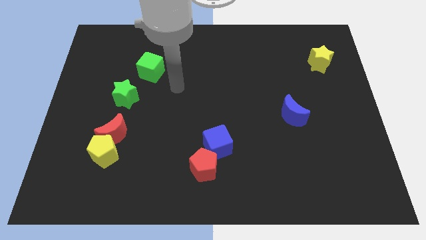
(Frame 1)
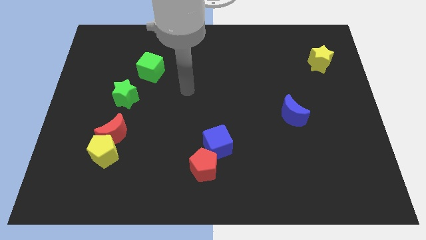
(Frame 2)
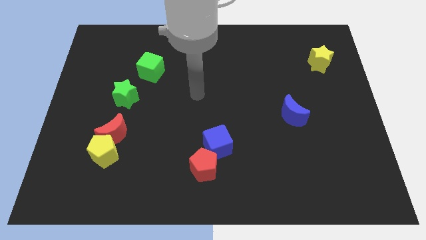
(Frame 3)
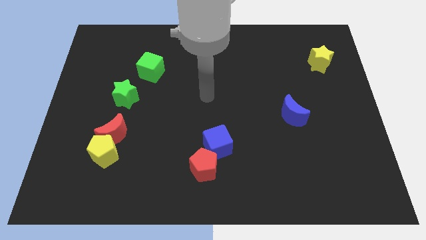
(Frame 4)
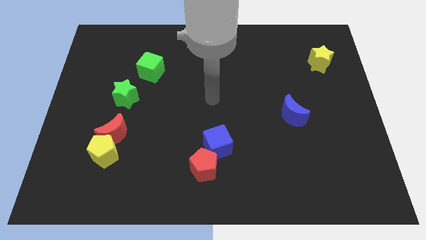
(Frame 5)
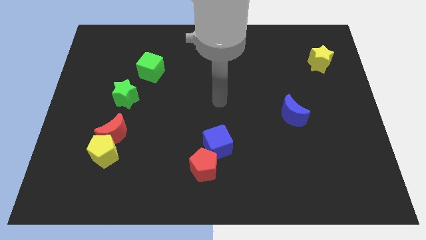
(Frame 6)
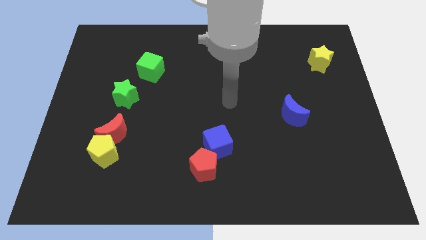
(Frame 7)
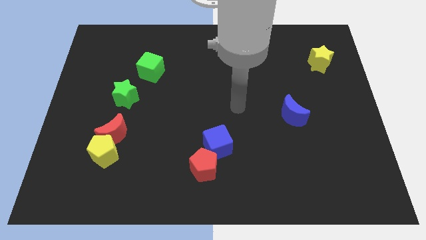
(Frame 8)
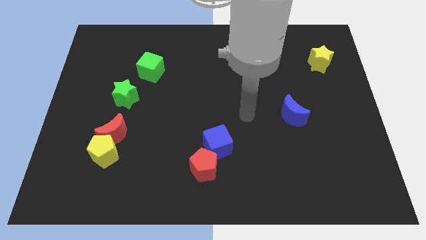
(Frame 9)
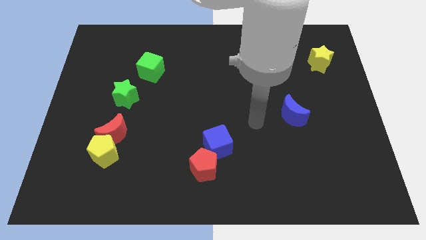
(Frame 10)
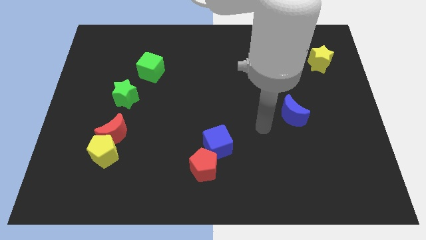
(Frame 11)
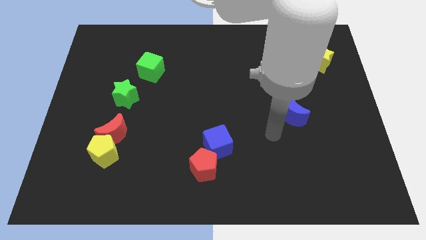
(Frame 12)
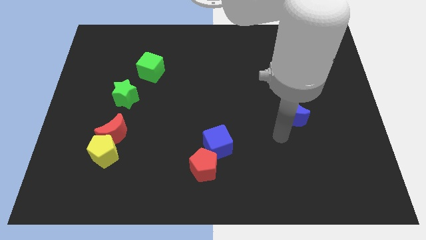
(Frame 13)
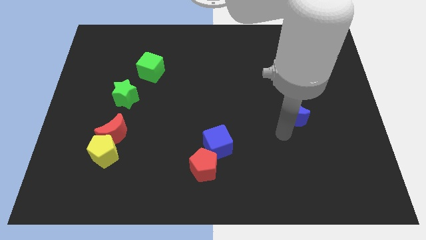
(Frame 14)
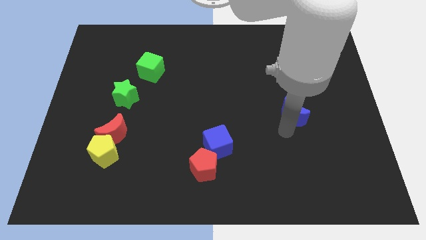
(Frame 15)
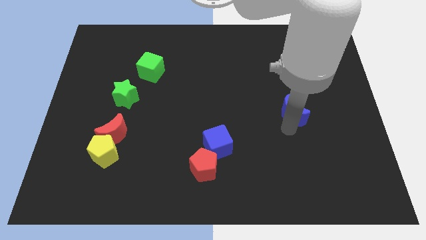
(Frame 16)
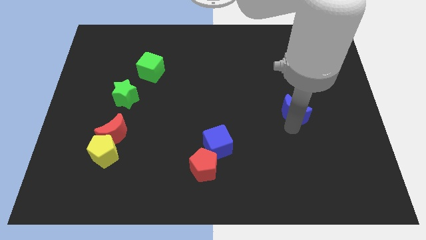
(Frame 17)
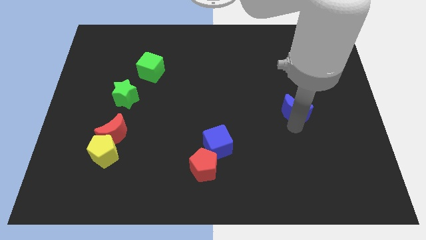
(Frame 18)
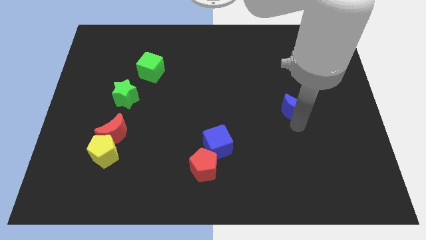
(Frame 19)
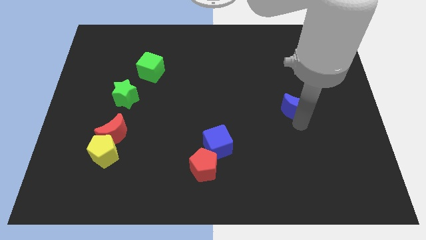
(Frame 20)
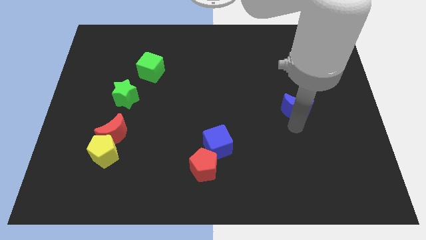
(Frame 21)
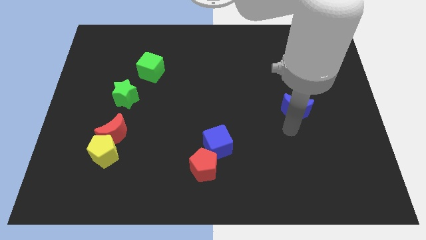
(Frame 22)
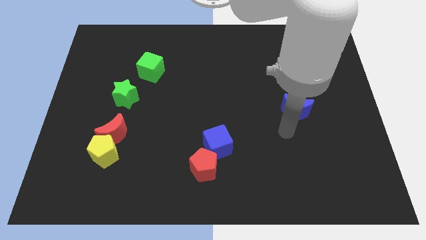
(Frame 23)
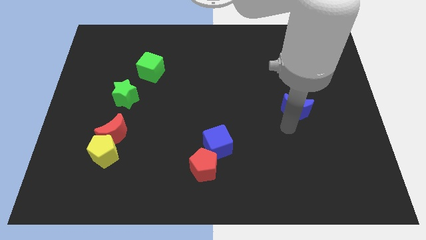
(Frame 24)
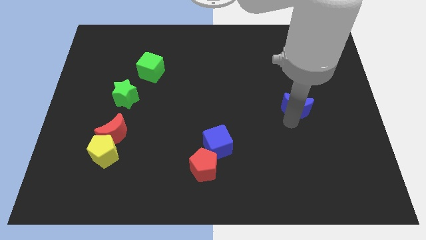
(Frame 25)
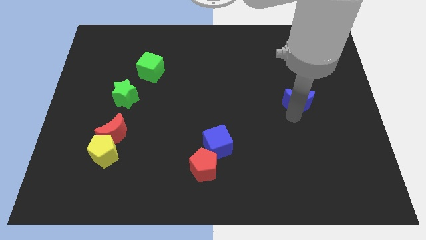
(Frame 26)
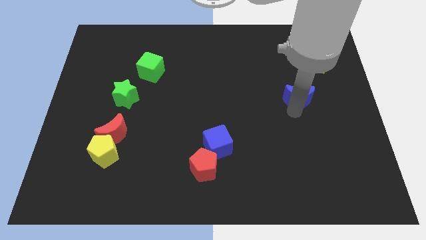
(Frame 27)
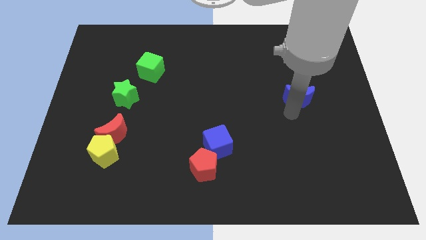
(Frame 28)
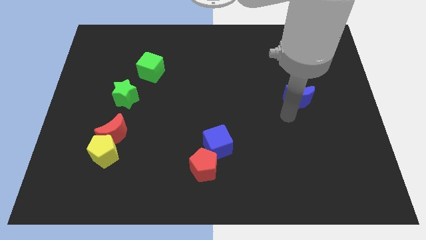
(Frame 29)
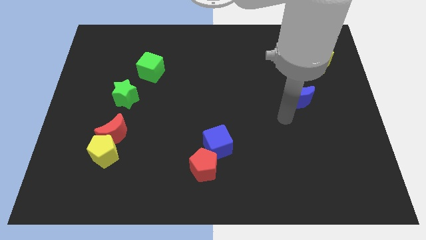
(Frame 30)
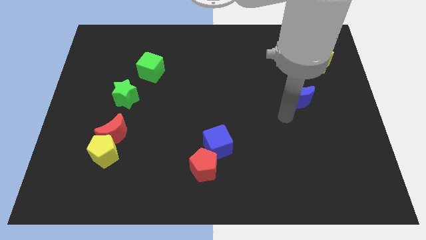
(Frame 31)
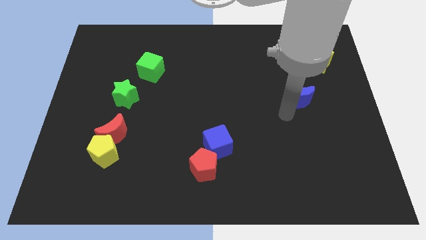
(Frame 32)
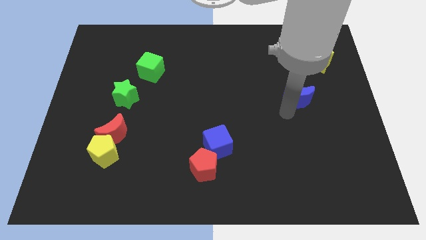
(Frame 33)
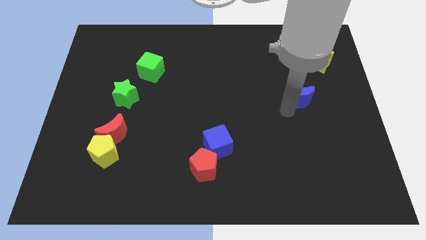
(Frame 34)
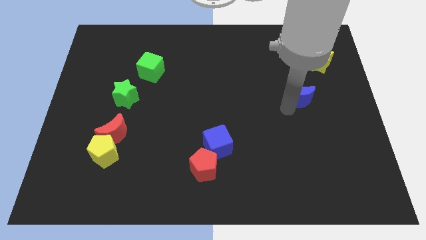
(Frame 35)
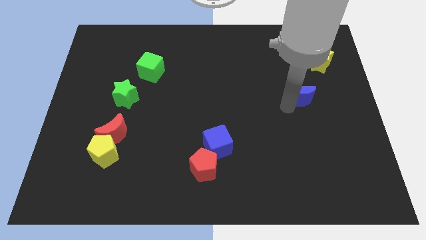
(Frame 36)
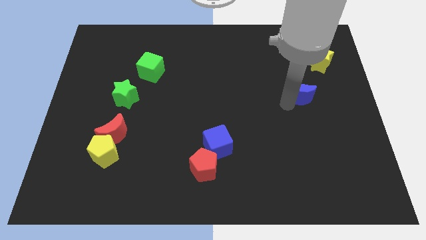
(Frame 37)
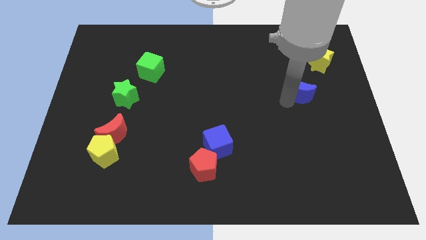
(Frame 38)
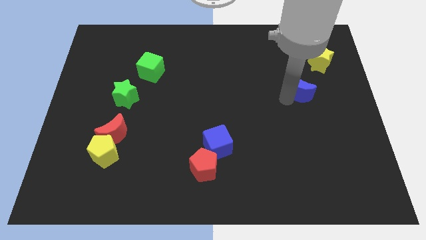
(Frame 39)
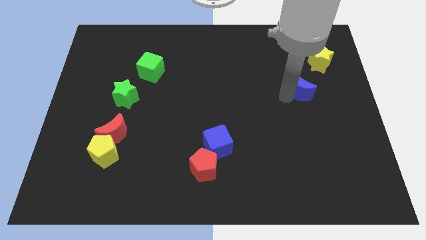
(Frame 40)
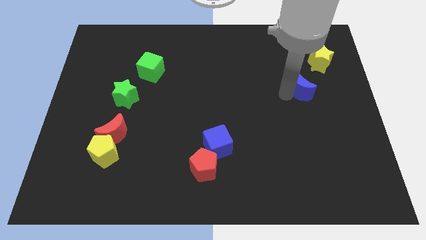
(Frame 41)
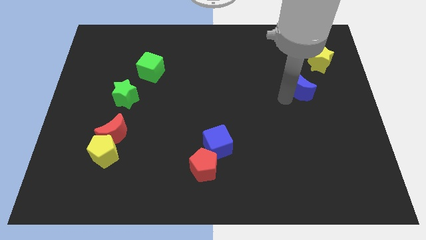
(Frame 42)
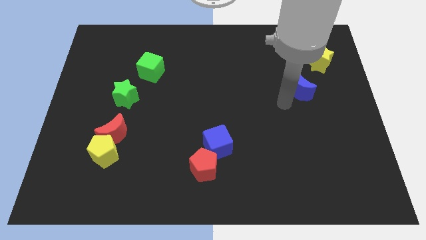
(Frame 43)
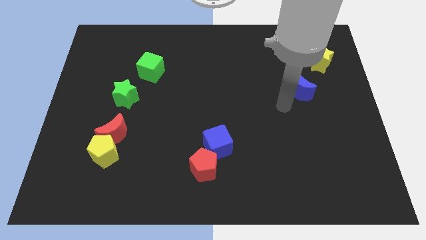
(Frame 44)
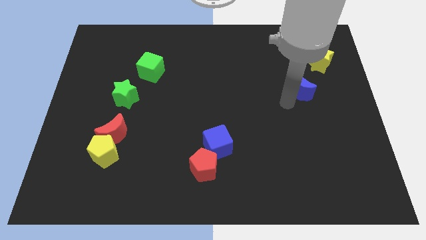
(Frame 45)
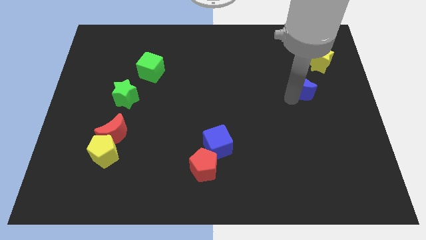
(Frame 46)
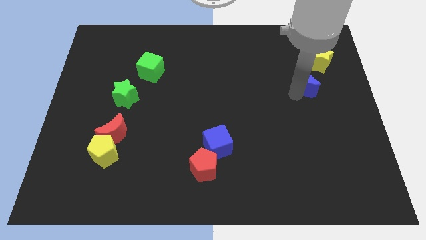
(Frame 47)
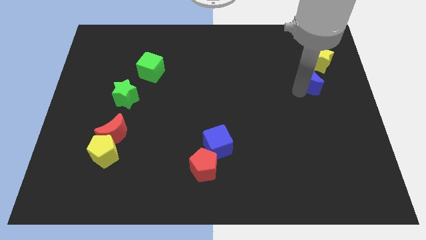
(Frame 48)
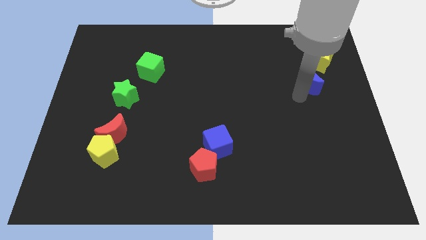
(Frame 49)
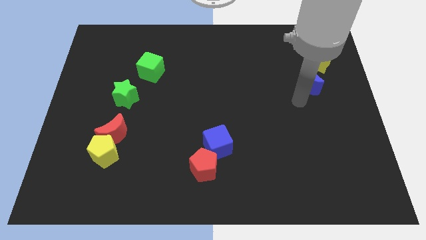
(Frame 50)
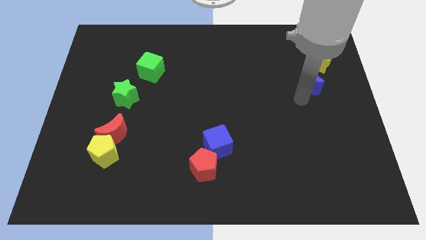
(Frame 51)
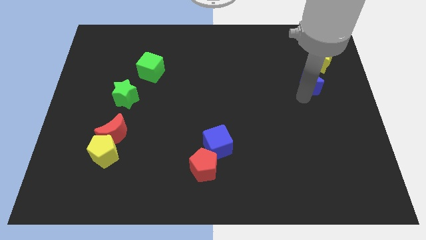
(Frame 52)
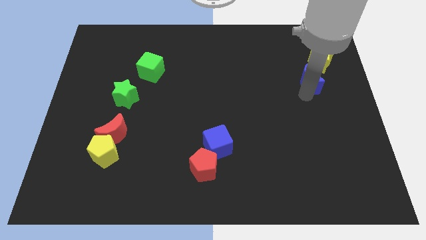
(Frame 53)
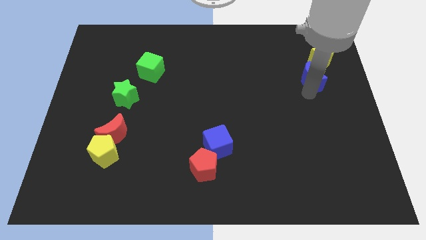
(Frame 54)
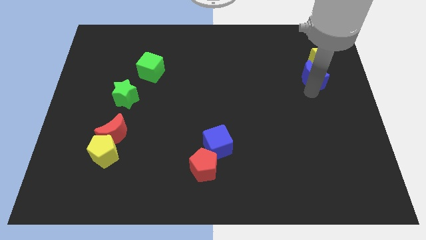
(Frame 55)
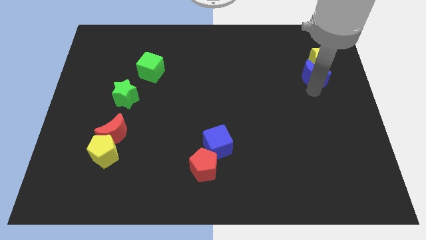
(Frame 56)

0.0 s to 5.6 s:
slide the blue moon close to the yellow star
